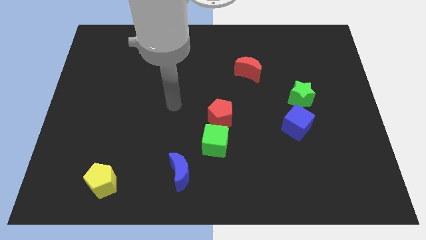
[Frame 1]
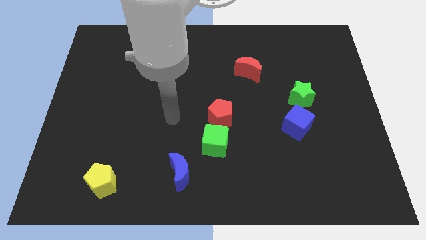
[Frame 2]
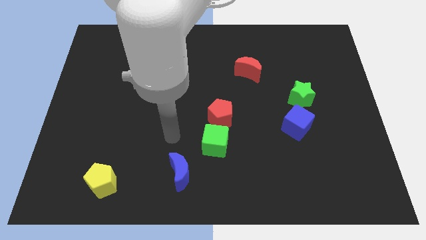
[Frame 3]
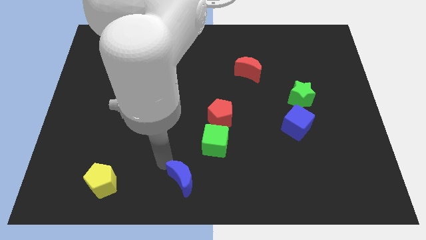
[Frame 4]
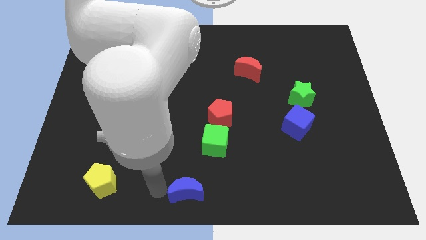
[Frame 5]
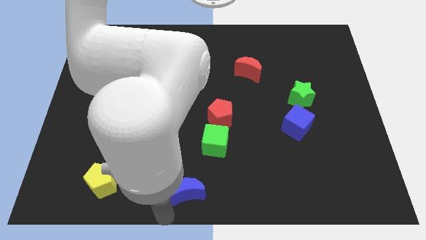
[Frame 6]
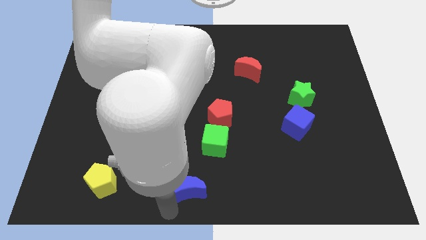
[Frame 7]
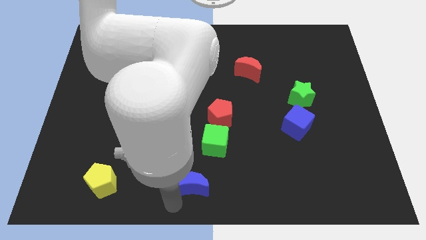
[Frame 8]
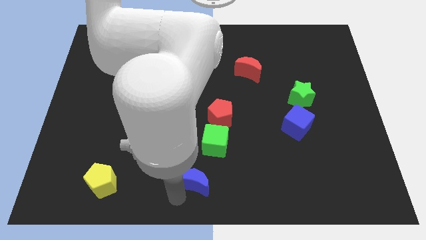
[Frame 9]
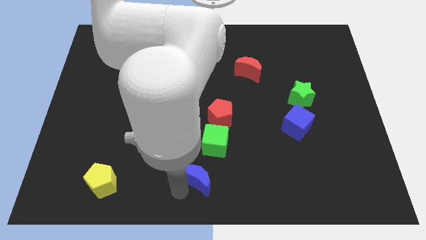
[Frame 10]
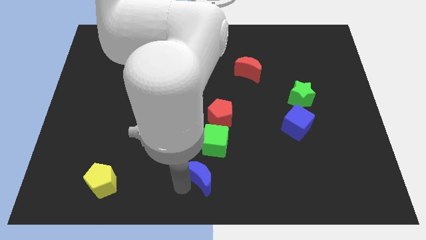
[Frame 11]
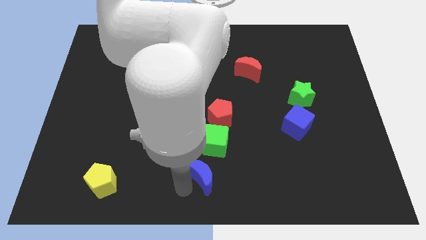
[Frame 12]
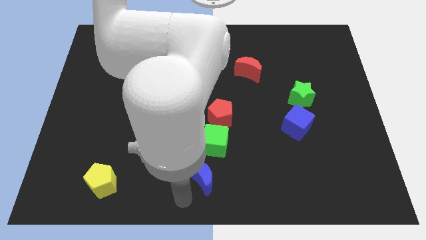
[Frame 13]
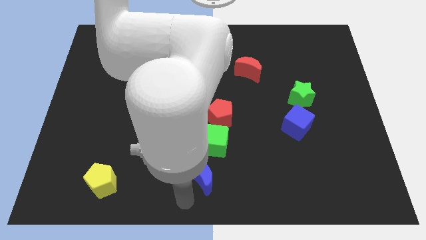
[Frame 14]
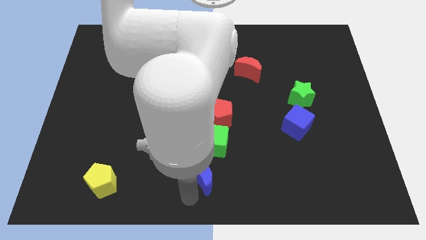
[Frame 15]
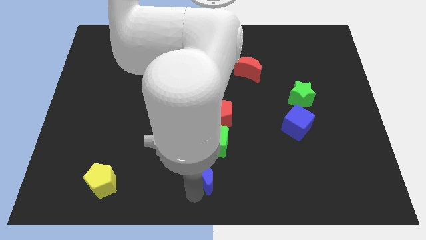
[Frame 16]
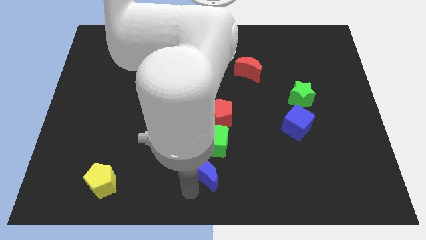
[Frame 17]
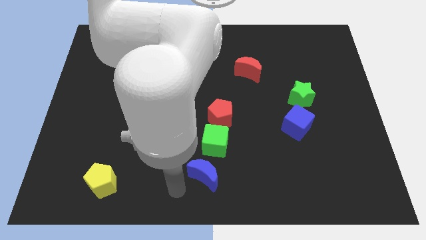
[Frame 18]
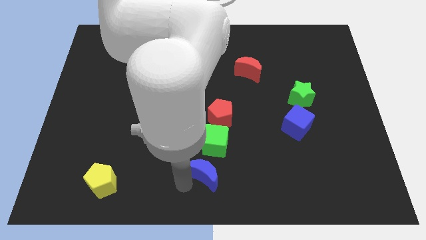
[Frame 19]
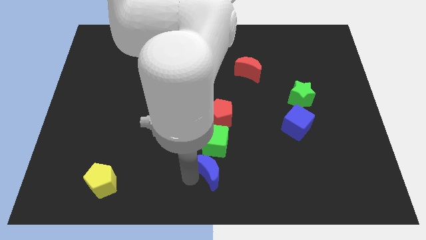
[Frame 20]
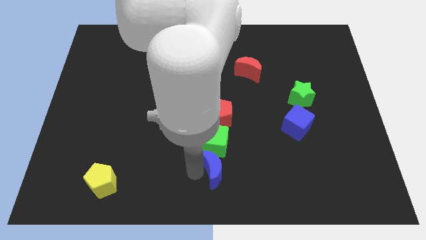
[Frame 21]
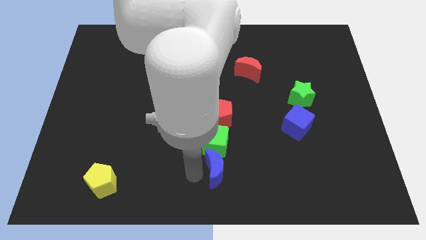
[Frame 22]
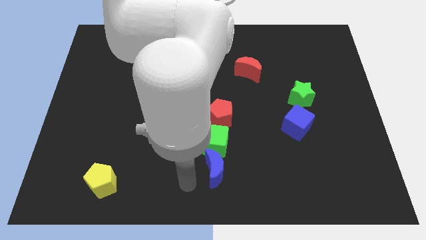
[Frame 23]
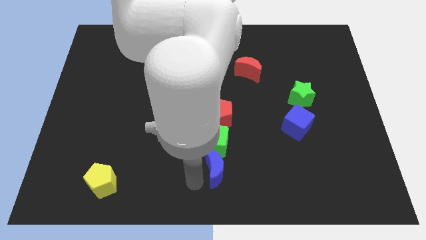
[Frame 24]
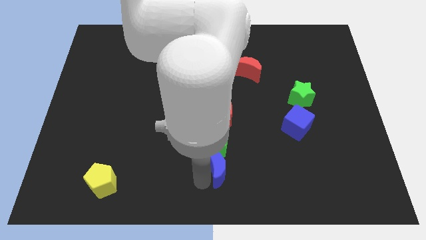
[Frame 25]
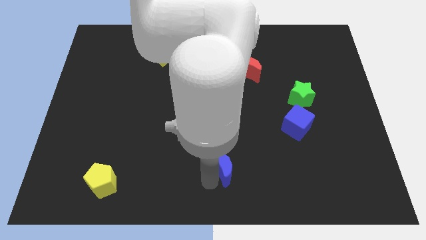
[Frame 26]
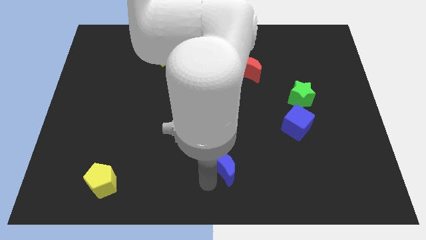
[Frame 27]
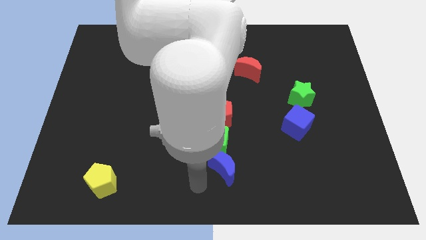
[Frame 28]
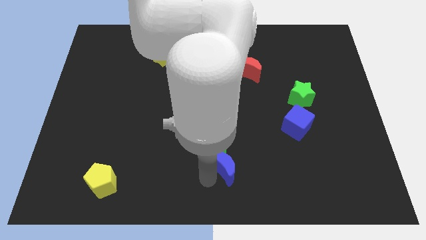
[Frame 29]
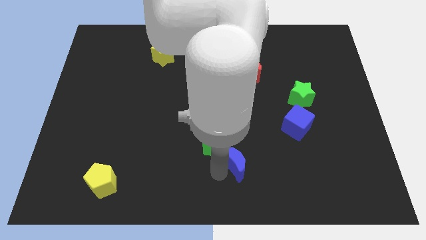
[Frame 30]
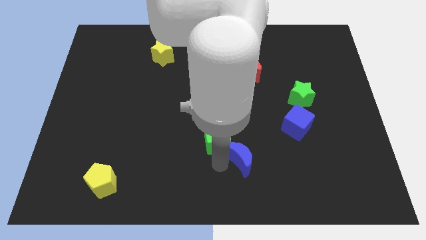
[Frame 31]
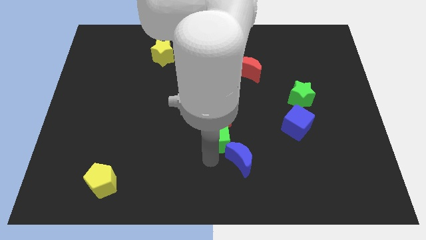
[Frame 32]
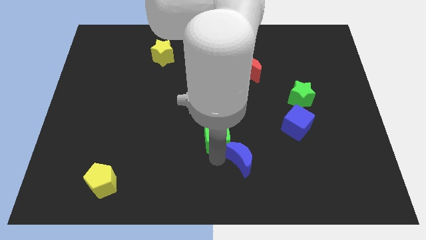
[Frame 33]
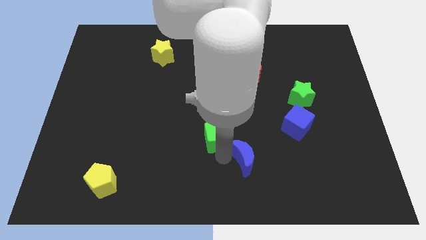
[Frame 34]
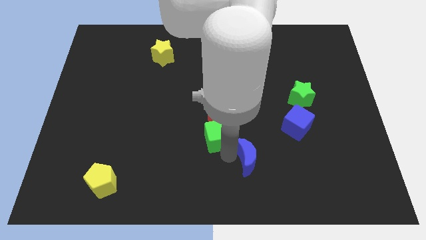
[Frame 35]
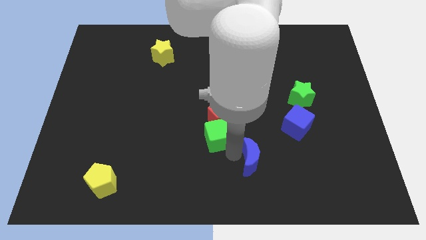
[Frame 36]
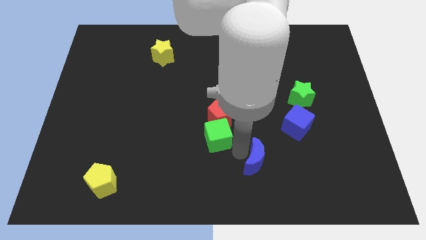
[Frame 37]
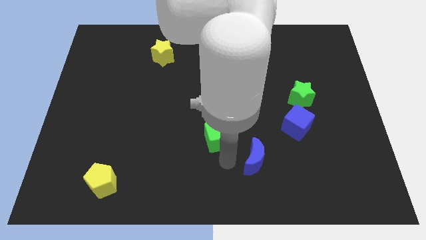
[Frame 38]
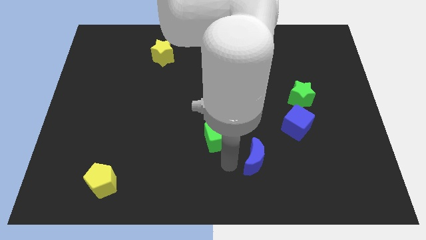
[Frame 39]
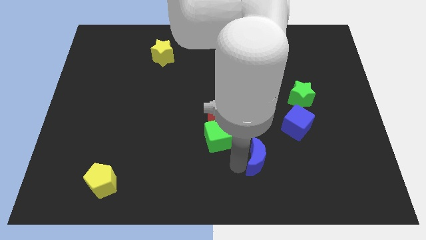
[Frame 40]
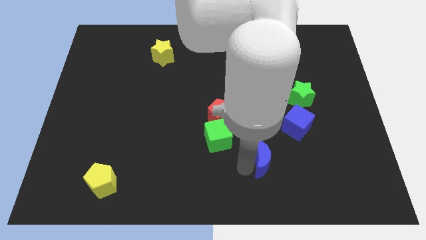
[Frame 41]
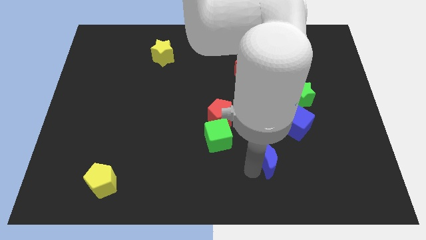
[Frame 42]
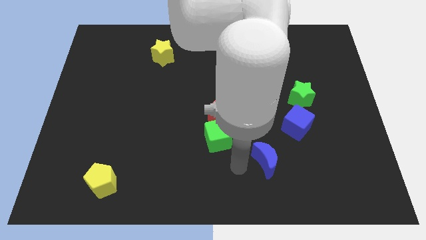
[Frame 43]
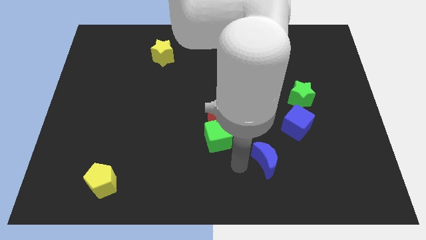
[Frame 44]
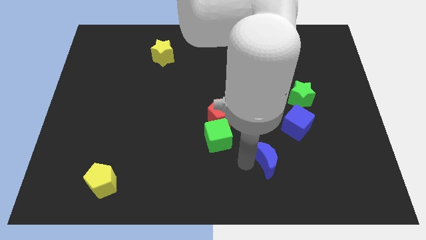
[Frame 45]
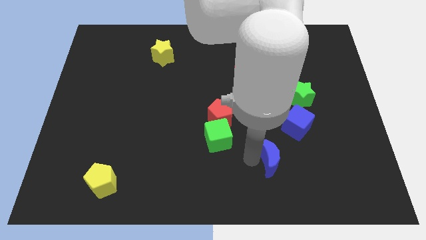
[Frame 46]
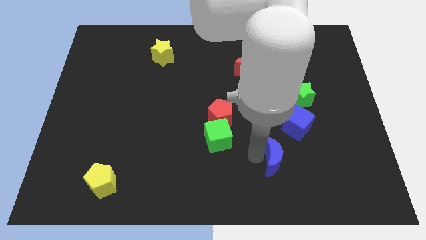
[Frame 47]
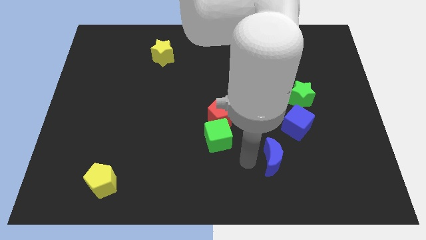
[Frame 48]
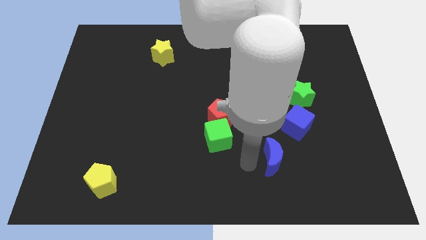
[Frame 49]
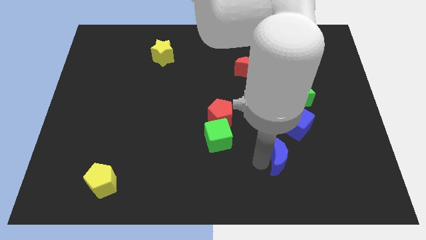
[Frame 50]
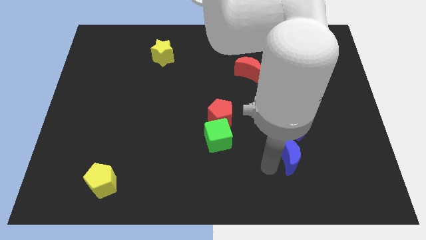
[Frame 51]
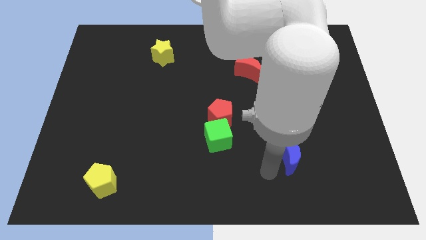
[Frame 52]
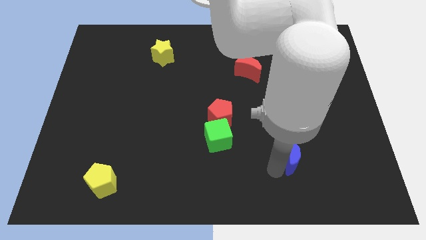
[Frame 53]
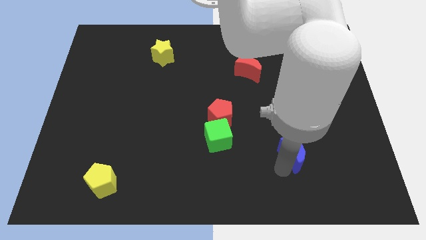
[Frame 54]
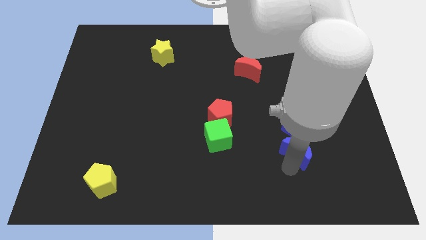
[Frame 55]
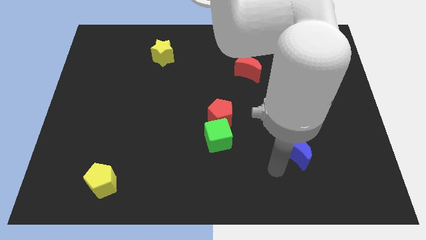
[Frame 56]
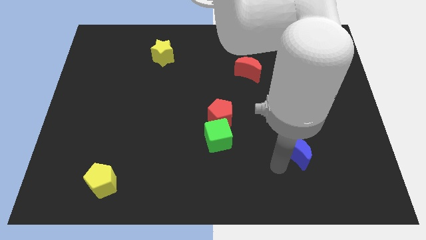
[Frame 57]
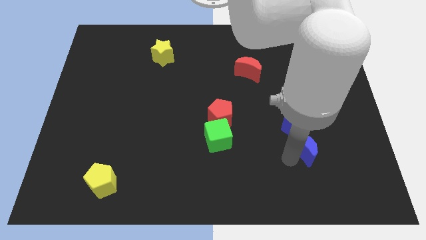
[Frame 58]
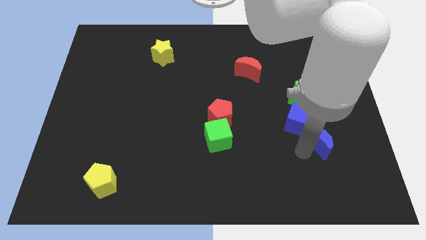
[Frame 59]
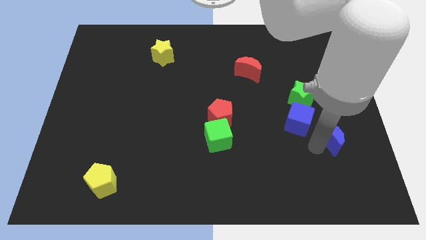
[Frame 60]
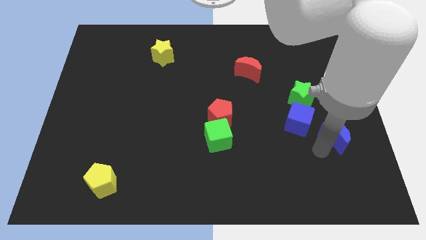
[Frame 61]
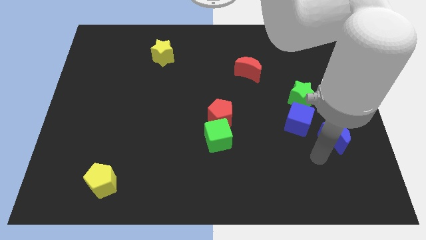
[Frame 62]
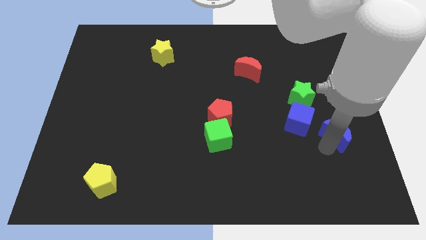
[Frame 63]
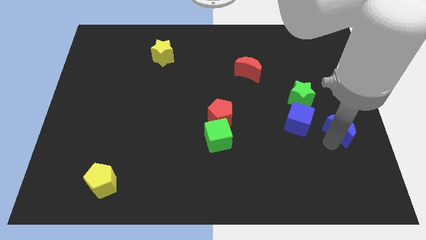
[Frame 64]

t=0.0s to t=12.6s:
put the blue moon to the right side
